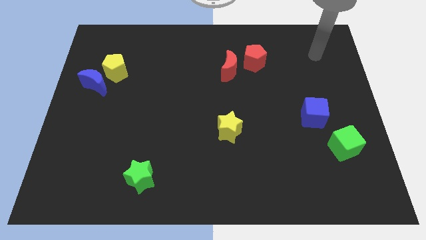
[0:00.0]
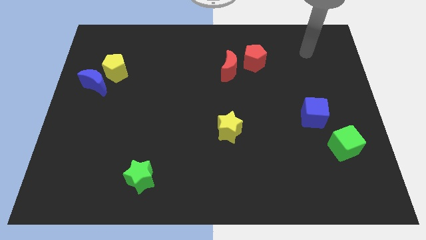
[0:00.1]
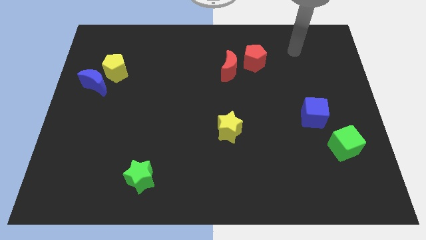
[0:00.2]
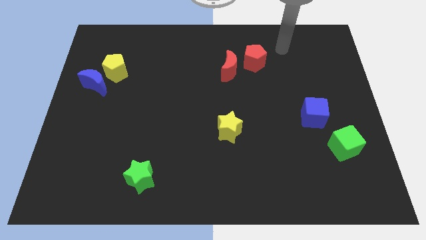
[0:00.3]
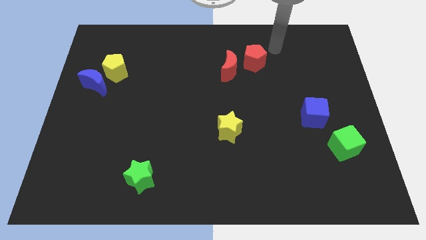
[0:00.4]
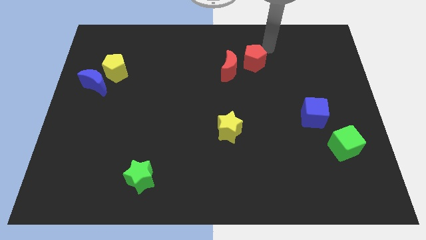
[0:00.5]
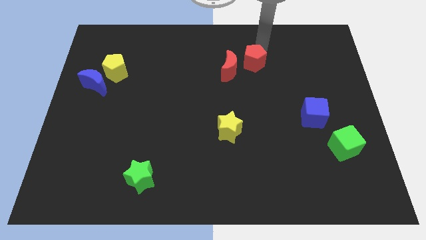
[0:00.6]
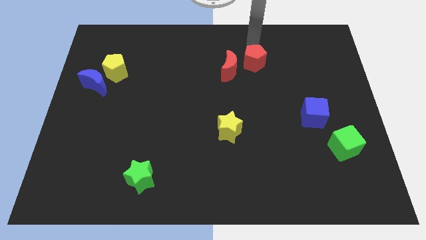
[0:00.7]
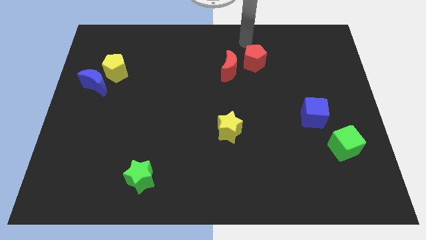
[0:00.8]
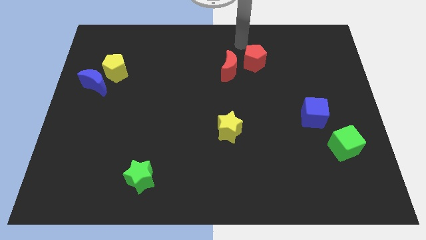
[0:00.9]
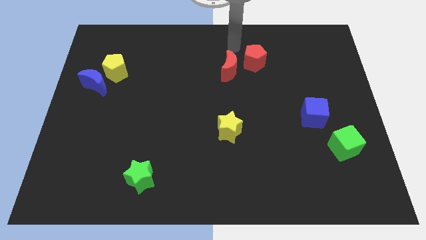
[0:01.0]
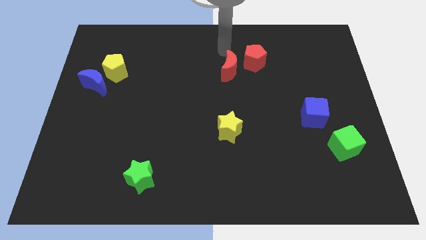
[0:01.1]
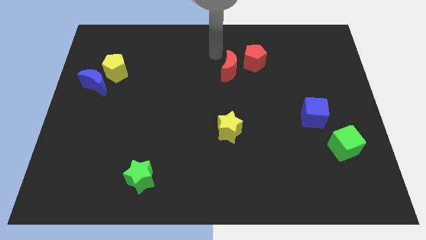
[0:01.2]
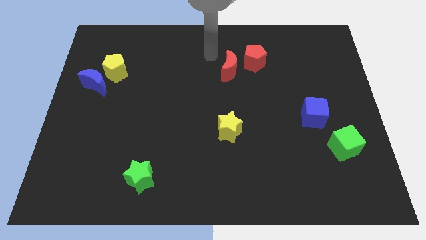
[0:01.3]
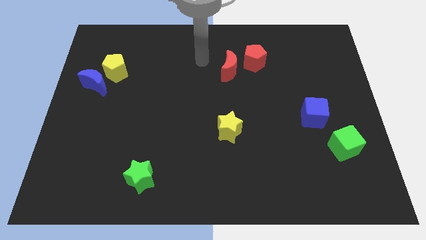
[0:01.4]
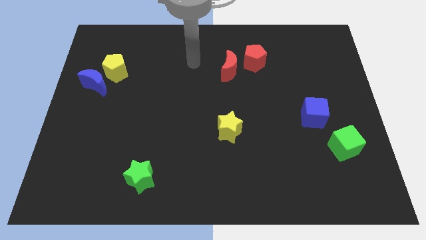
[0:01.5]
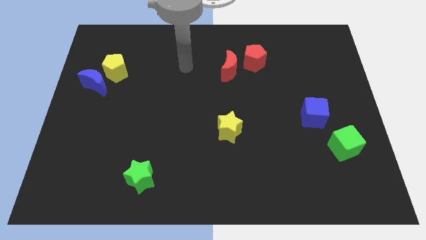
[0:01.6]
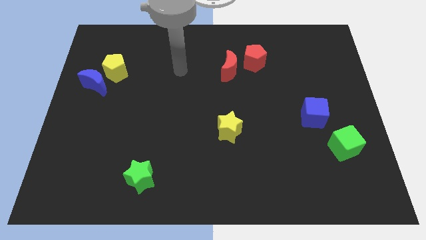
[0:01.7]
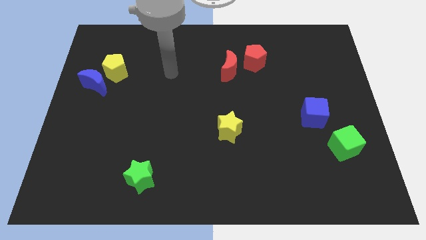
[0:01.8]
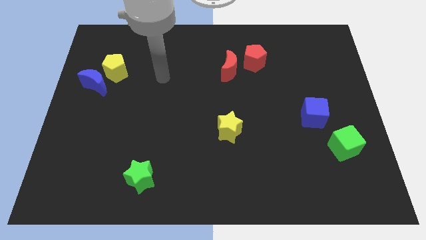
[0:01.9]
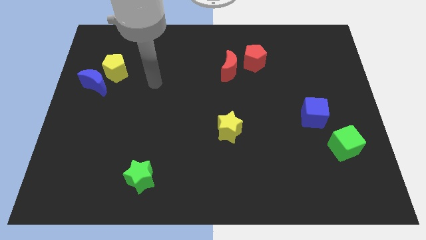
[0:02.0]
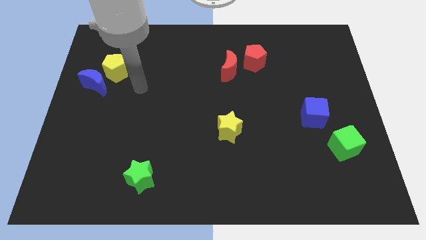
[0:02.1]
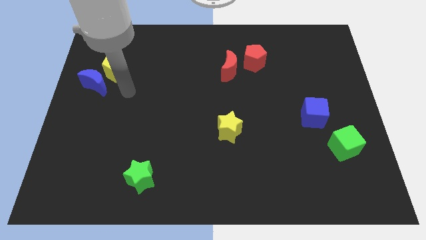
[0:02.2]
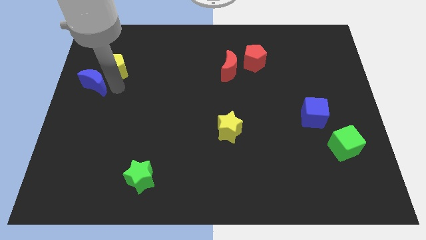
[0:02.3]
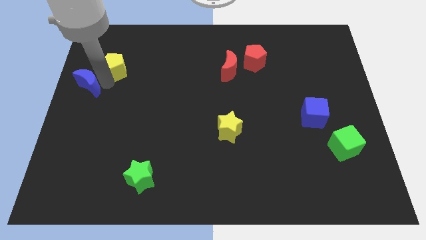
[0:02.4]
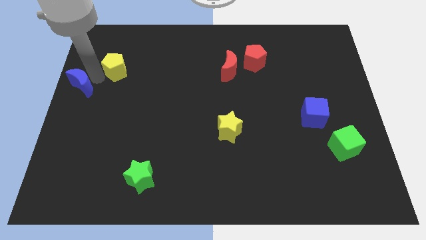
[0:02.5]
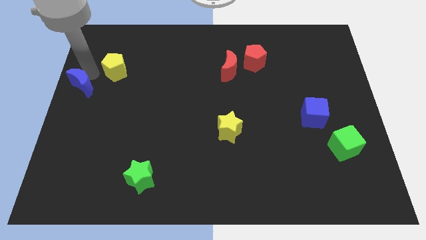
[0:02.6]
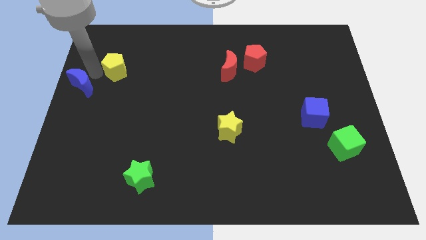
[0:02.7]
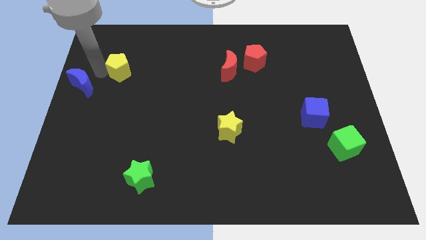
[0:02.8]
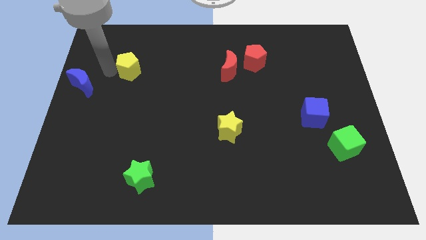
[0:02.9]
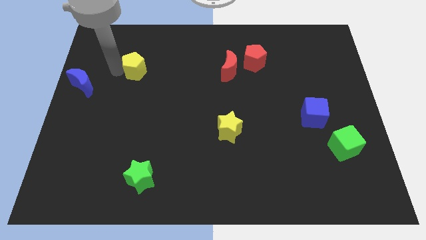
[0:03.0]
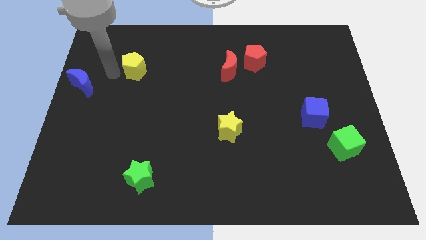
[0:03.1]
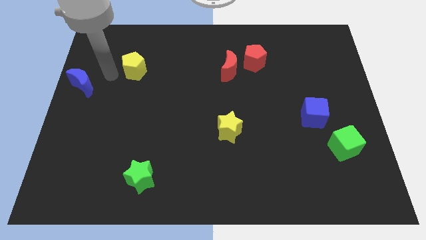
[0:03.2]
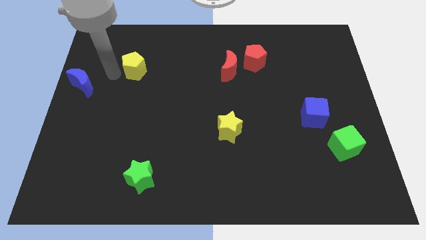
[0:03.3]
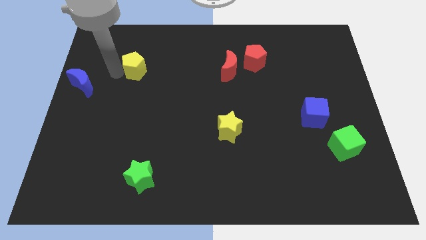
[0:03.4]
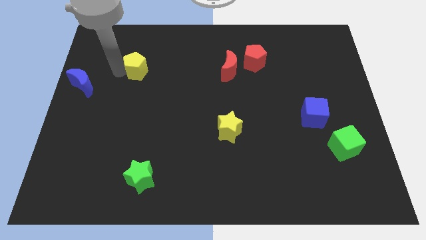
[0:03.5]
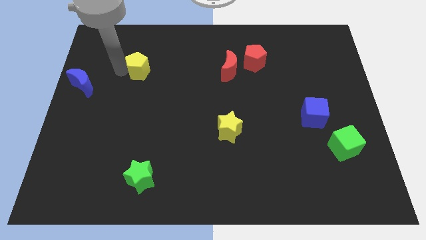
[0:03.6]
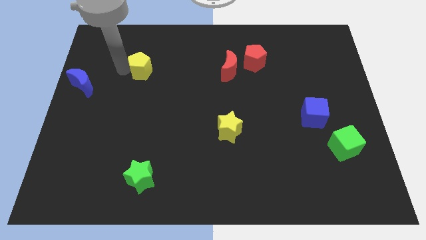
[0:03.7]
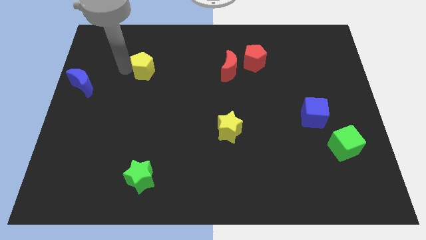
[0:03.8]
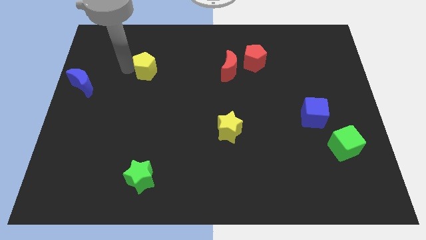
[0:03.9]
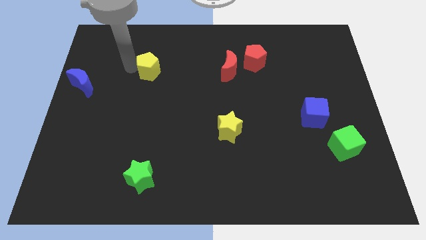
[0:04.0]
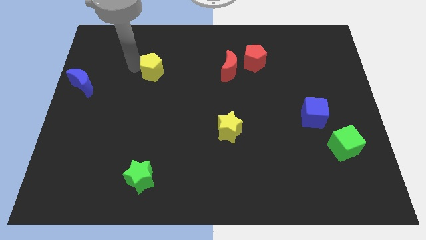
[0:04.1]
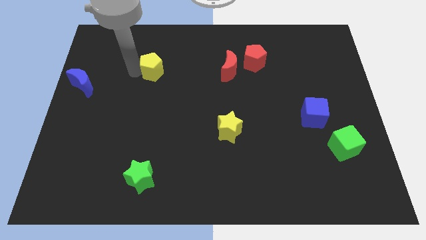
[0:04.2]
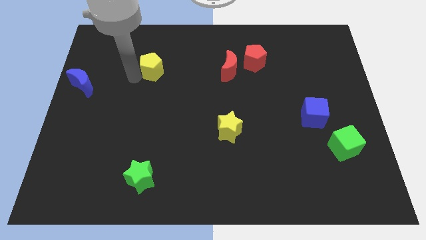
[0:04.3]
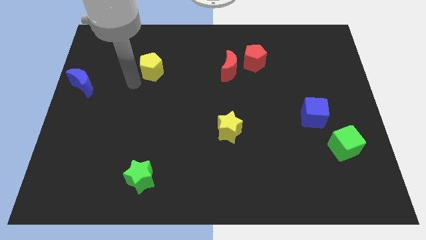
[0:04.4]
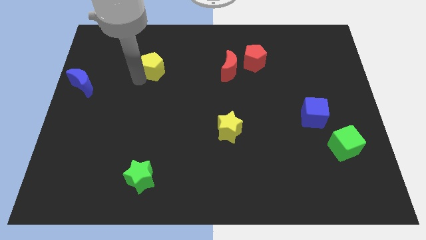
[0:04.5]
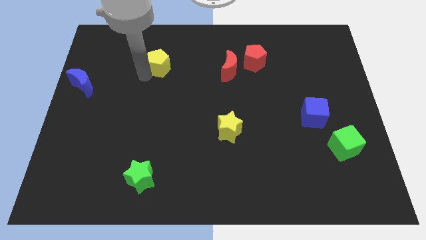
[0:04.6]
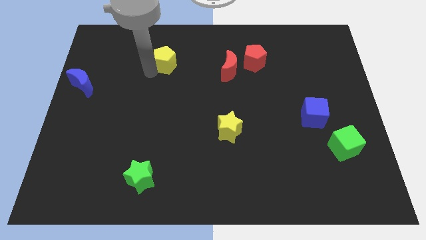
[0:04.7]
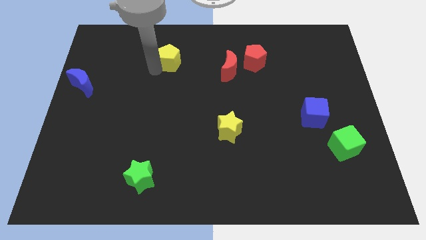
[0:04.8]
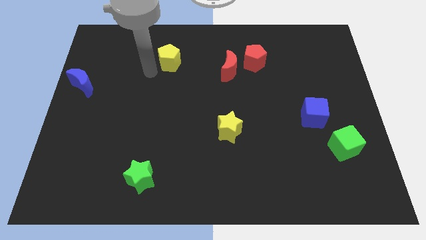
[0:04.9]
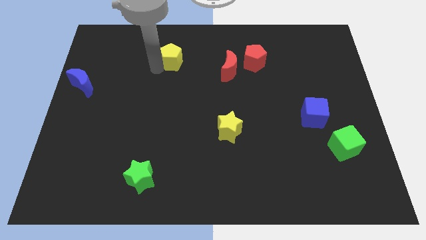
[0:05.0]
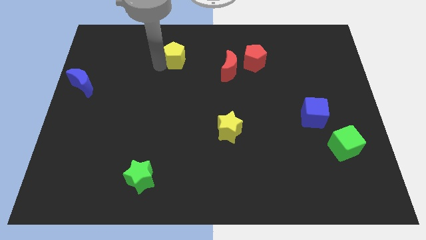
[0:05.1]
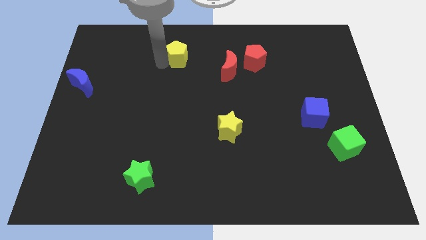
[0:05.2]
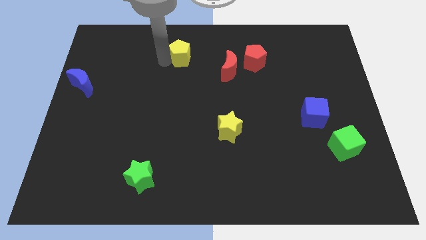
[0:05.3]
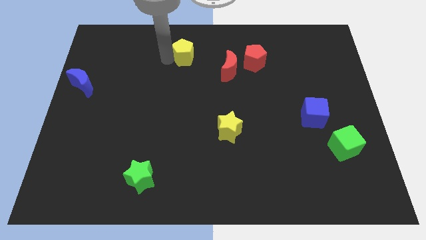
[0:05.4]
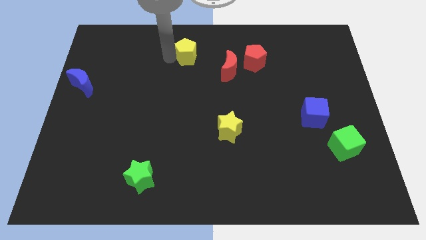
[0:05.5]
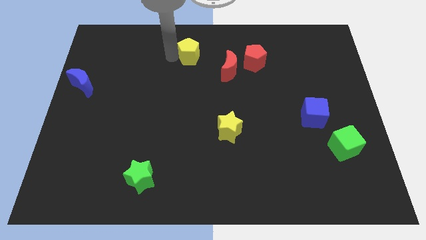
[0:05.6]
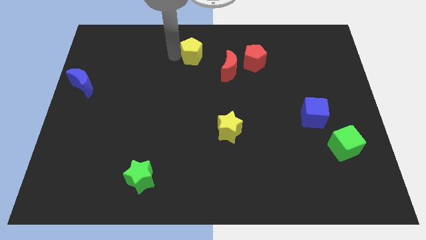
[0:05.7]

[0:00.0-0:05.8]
put the yellow pentagon to the towards your base
